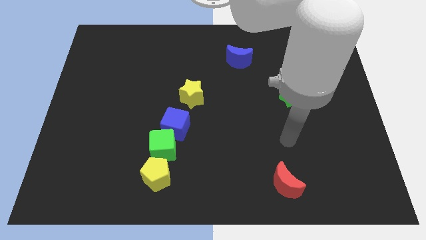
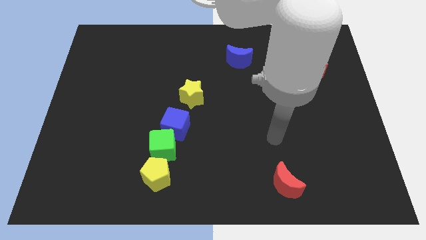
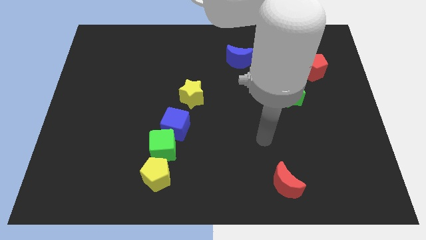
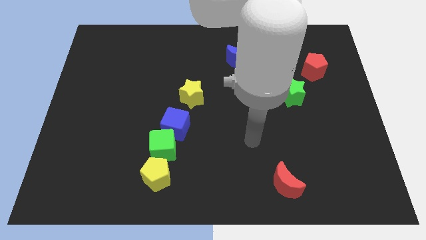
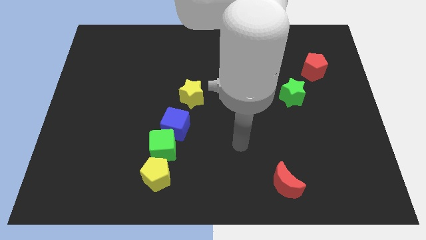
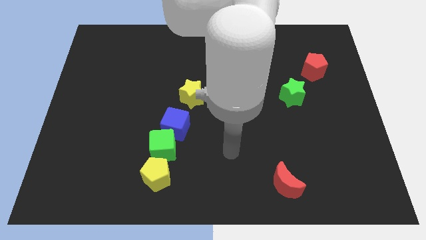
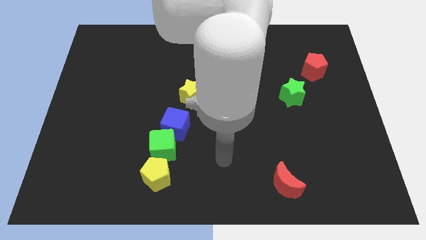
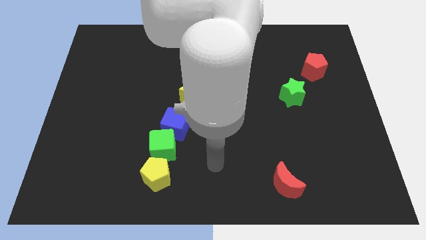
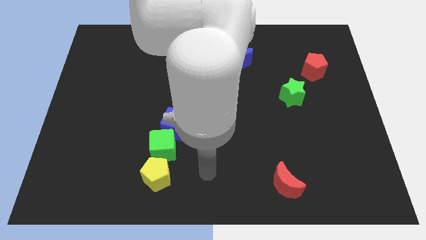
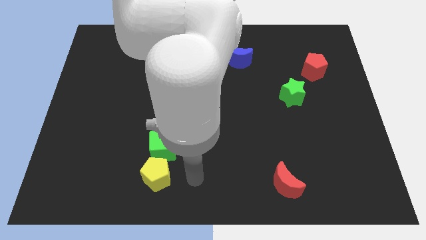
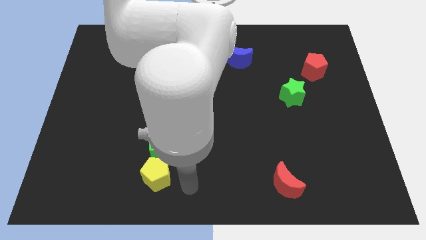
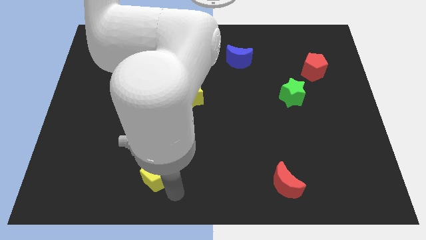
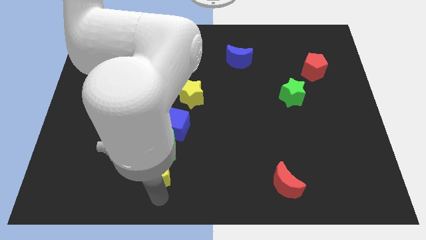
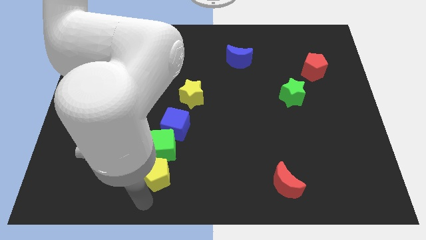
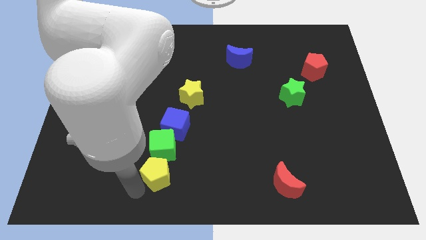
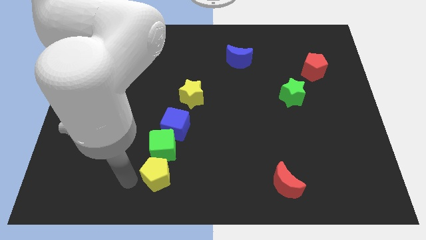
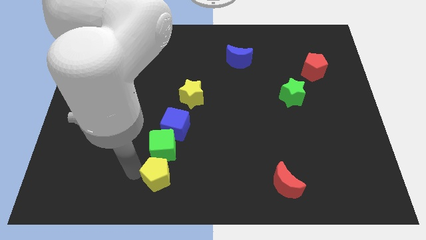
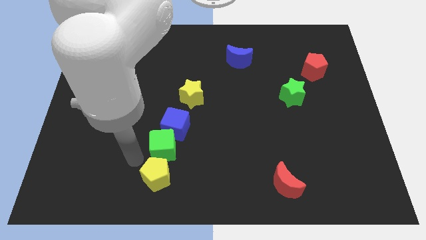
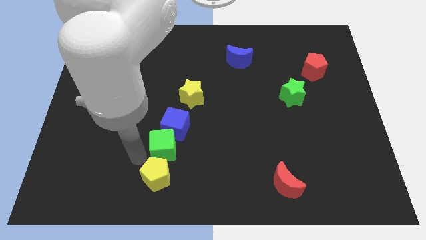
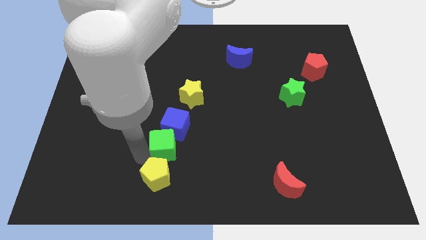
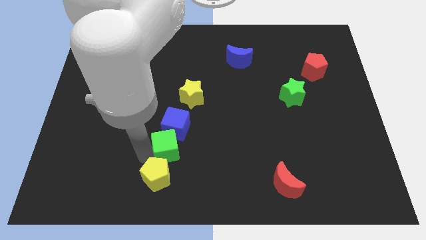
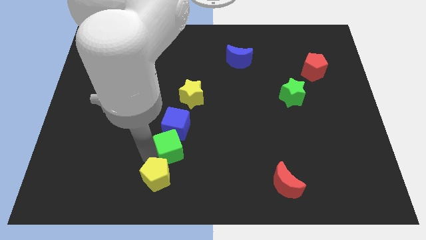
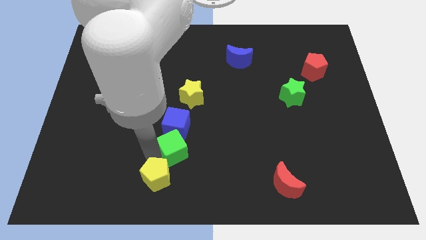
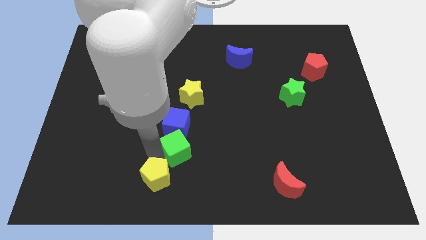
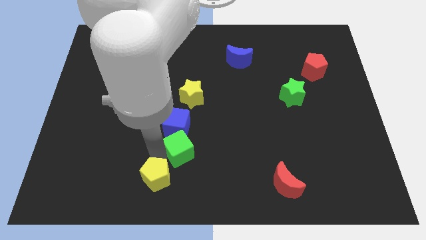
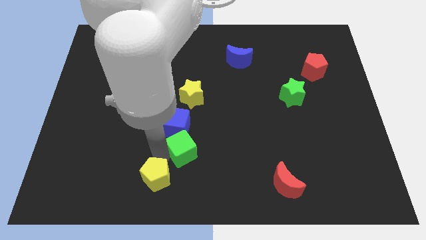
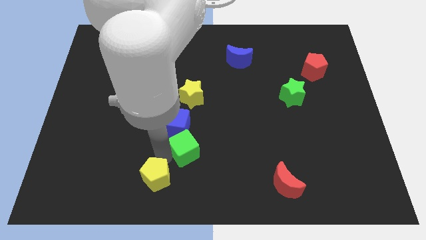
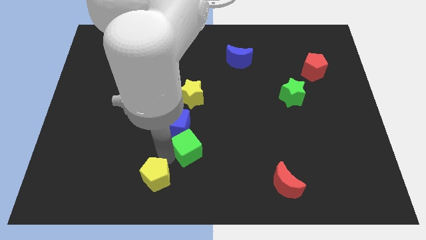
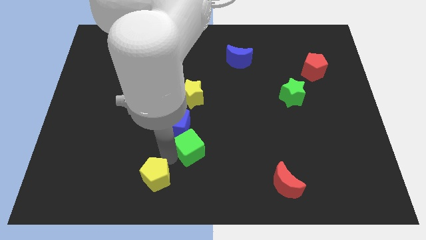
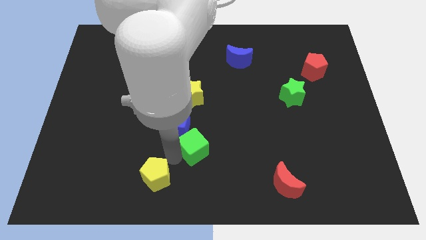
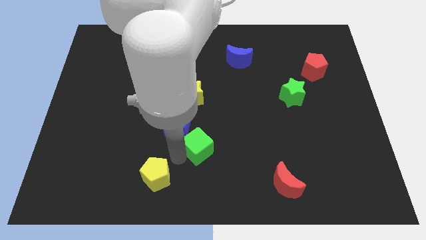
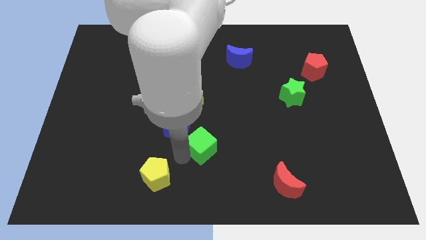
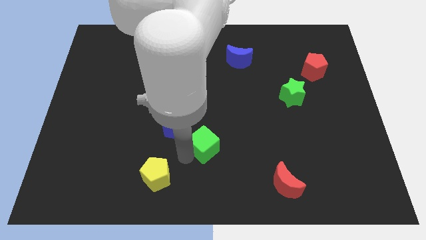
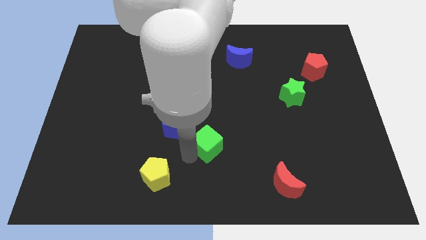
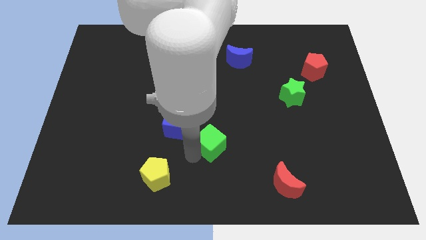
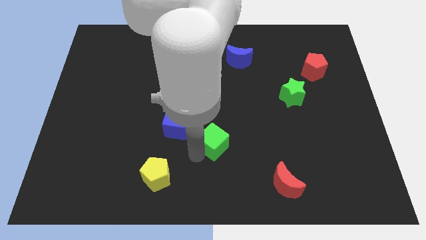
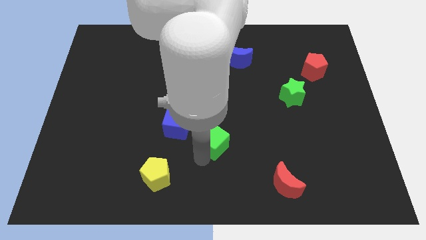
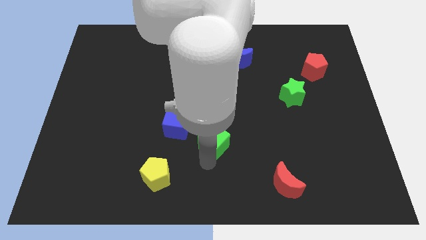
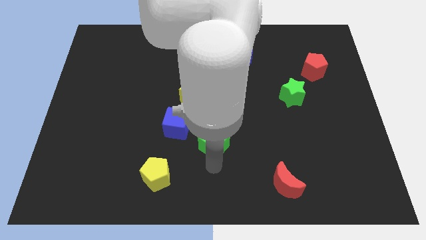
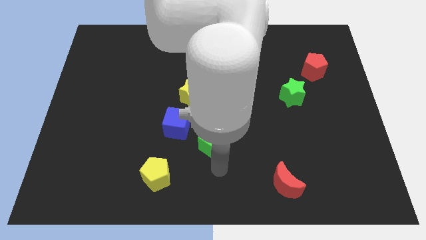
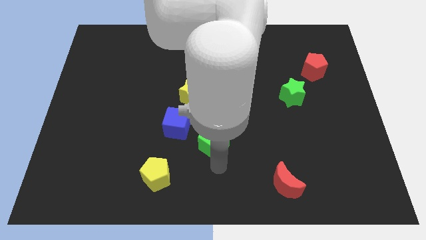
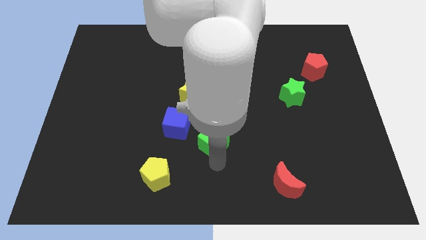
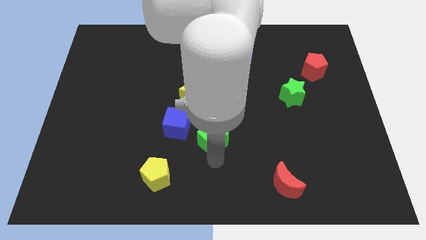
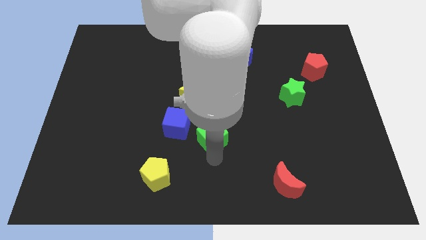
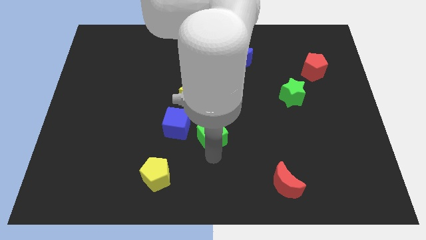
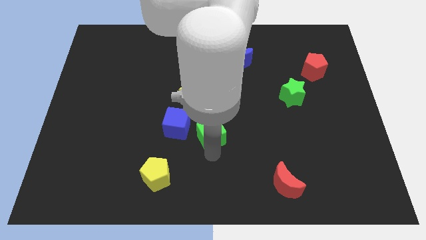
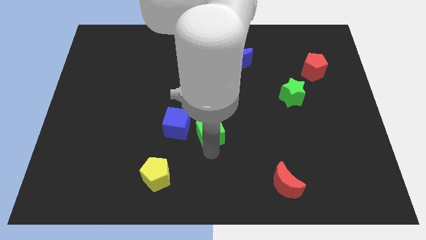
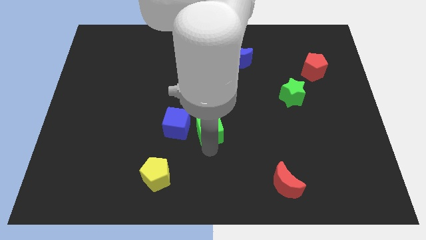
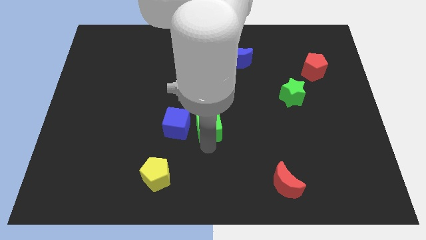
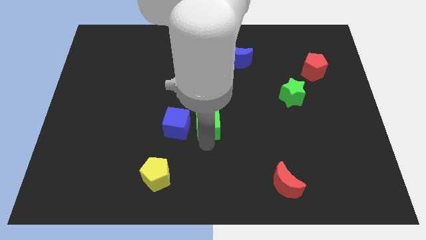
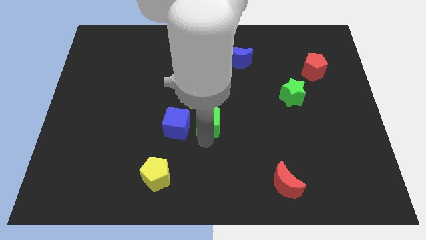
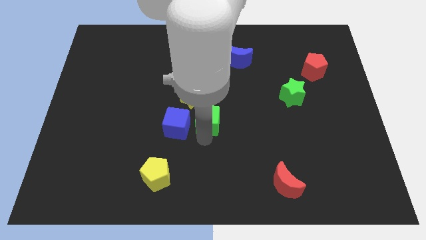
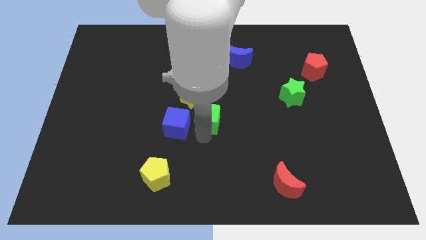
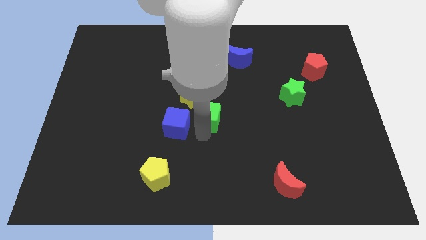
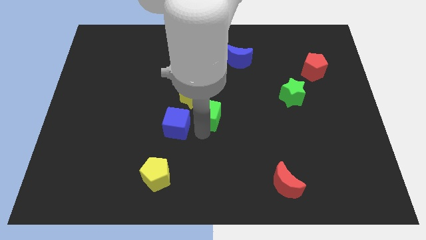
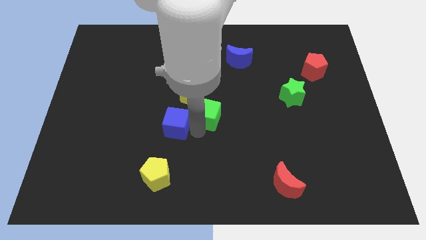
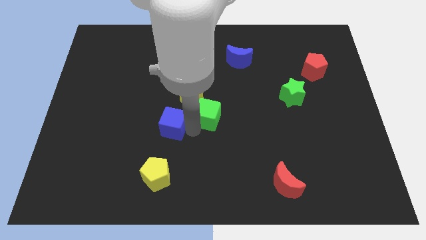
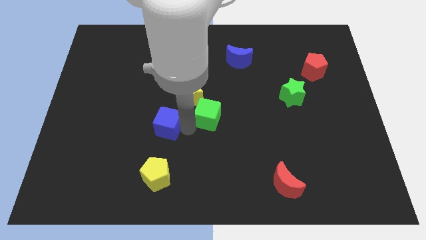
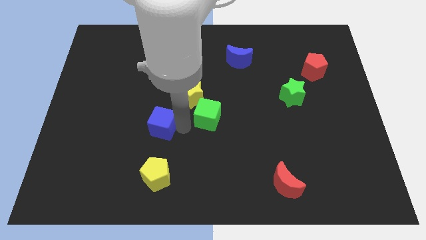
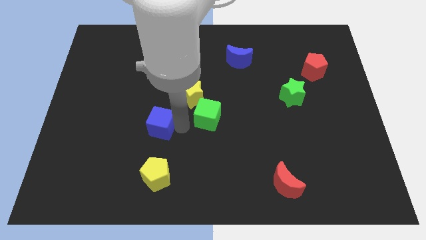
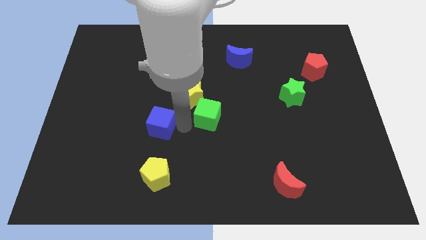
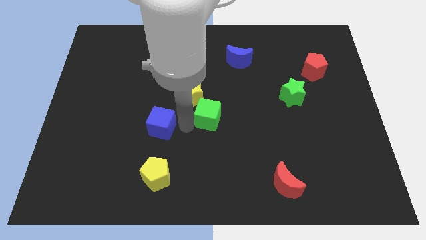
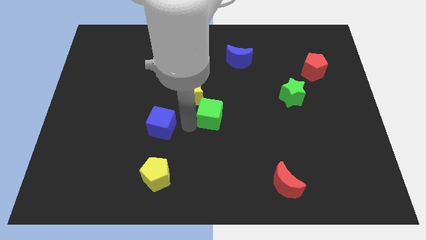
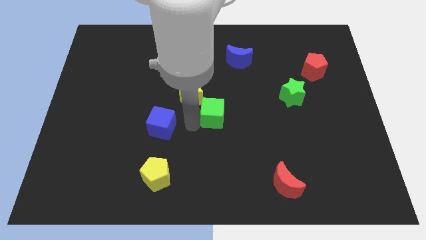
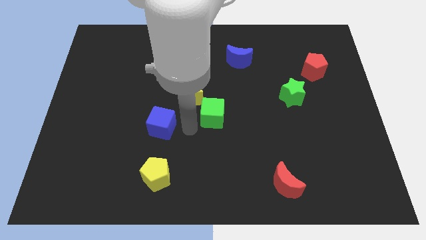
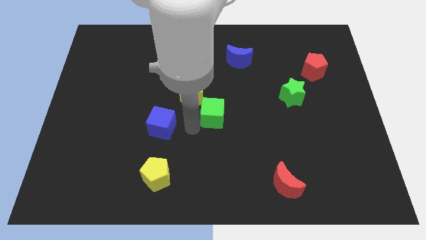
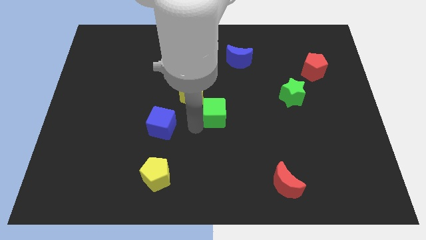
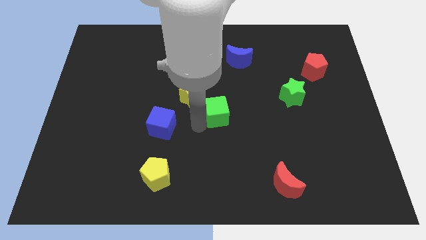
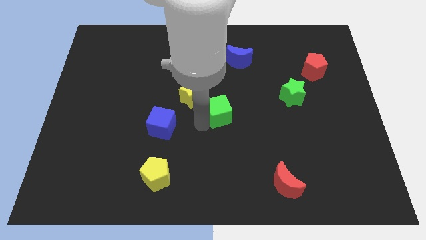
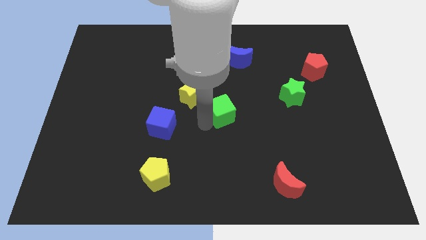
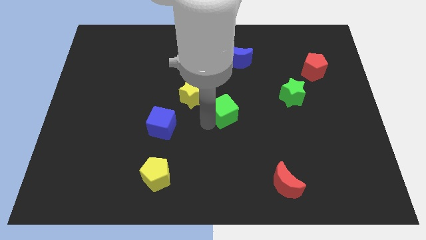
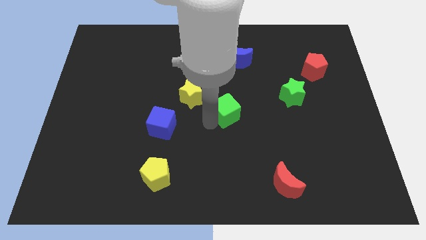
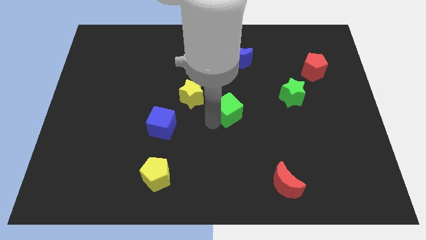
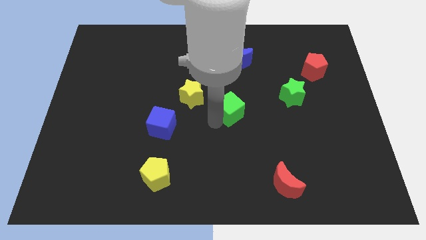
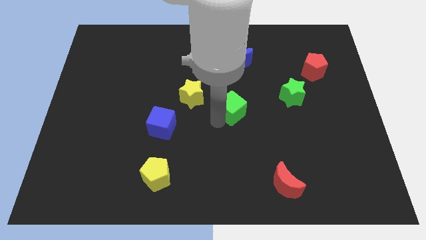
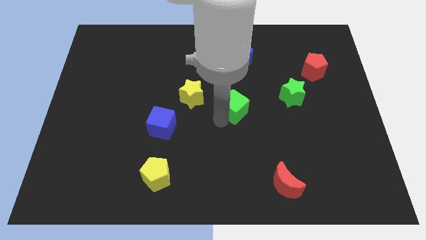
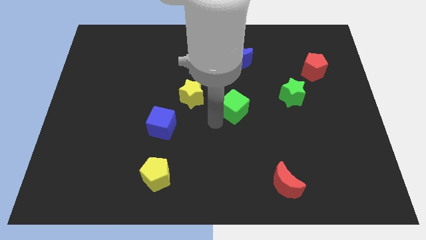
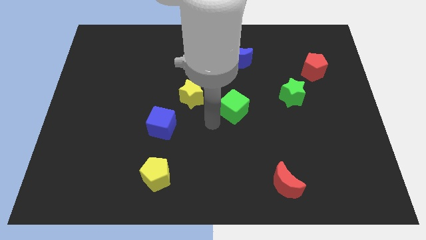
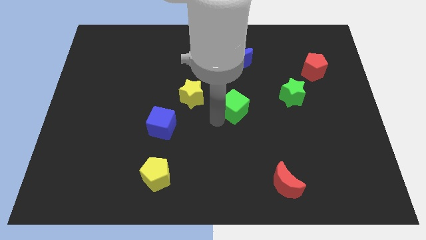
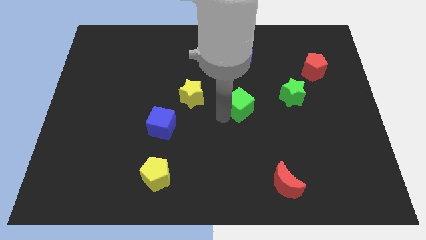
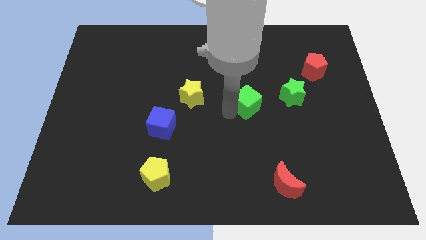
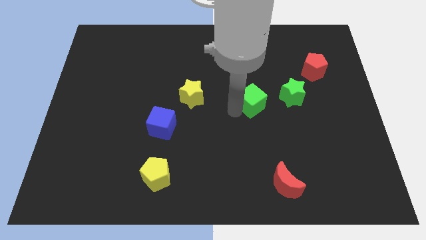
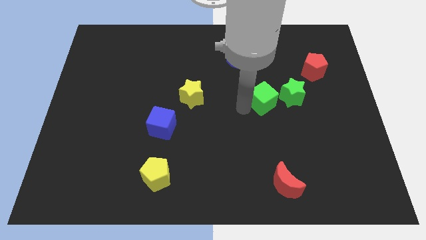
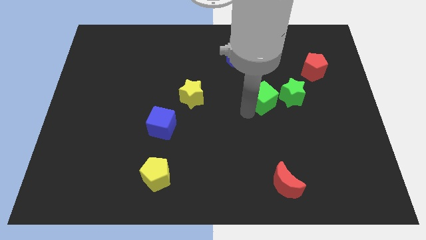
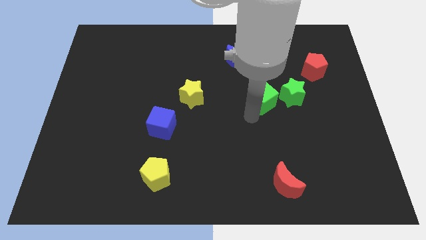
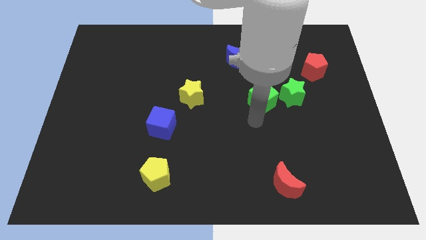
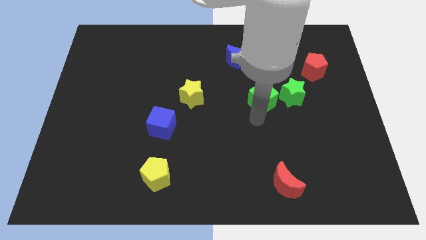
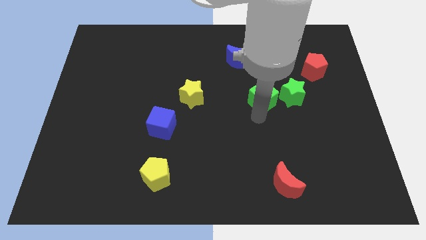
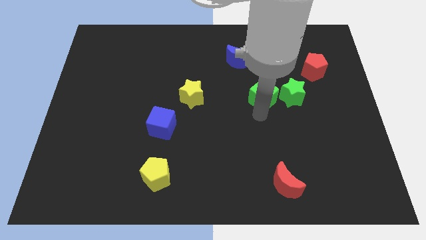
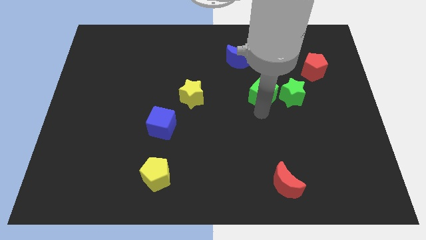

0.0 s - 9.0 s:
slide the green cube to the top left of the green star
